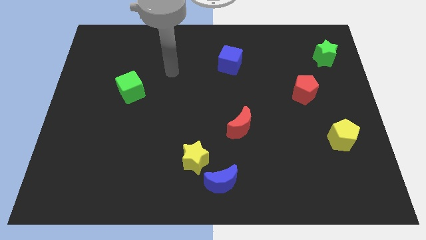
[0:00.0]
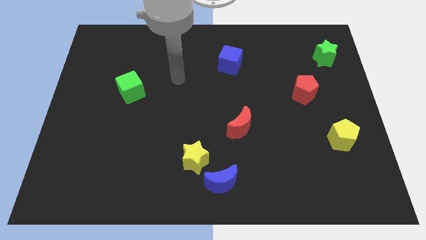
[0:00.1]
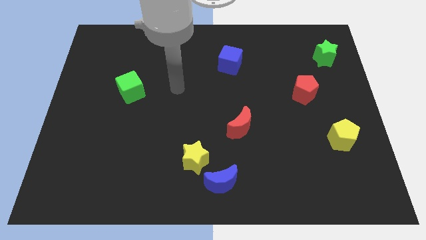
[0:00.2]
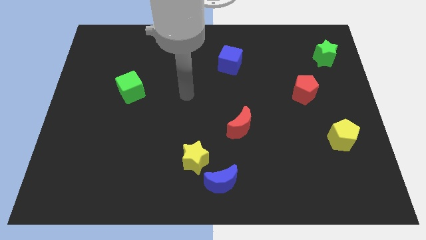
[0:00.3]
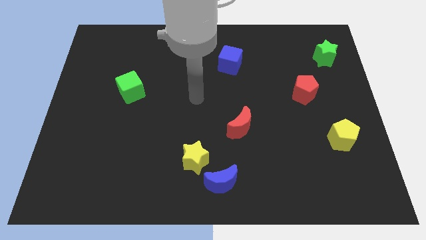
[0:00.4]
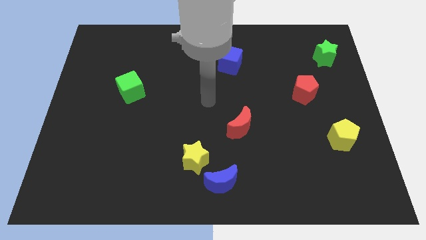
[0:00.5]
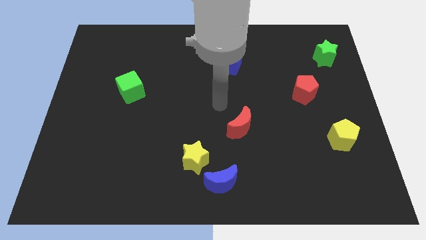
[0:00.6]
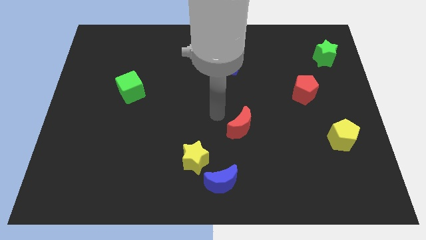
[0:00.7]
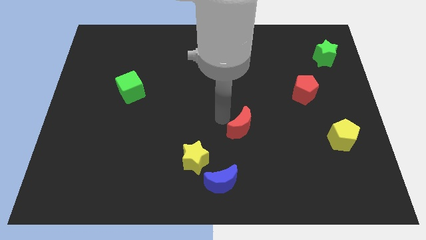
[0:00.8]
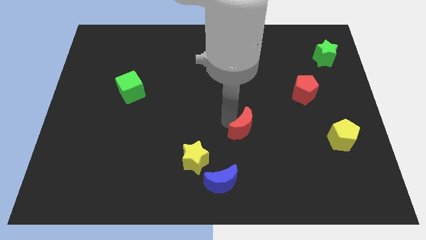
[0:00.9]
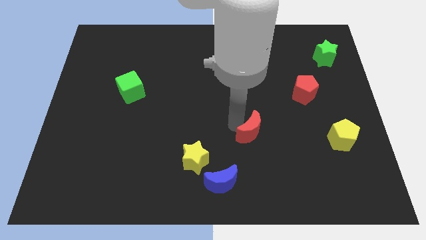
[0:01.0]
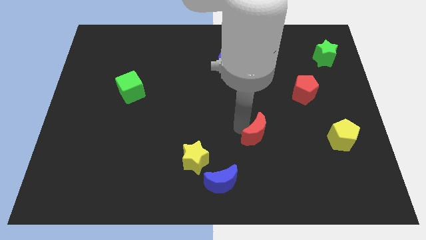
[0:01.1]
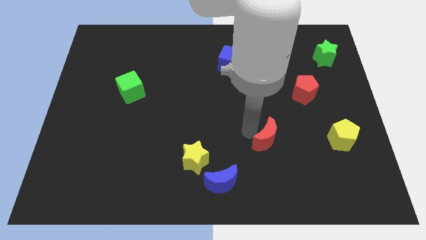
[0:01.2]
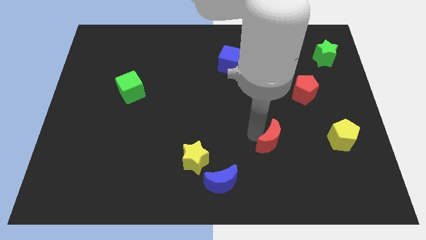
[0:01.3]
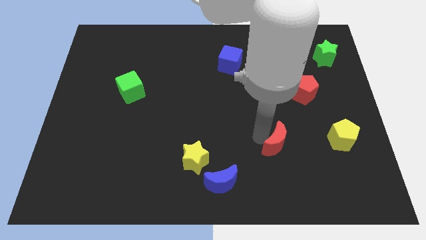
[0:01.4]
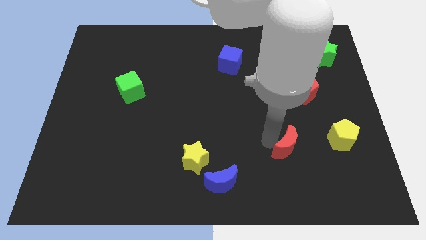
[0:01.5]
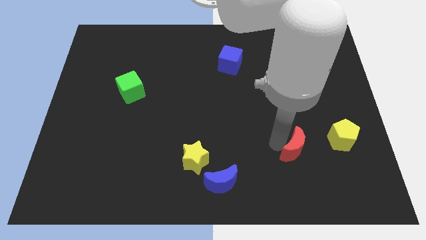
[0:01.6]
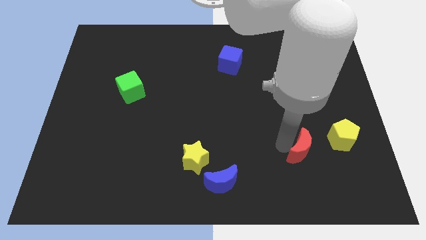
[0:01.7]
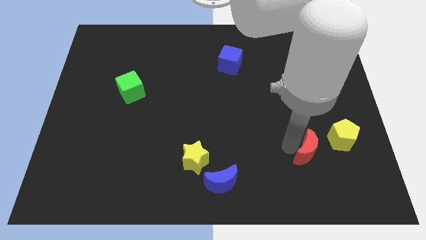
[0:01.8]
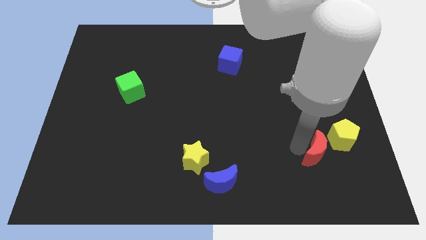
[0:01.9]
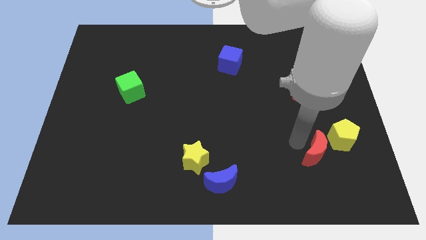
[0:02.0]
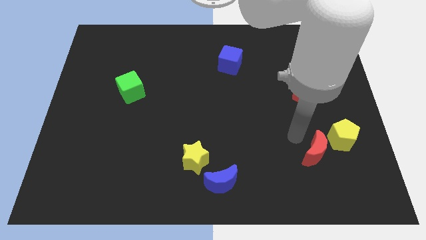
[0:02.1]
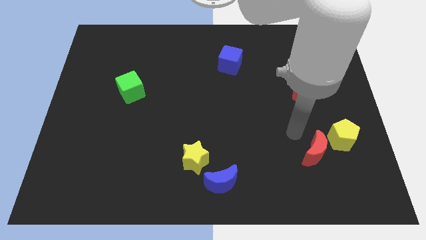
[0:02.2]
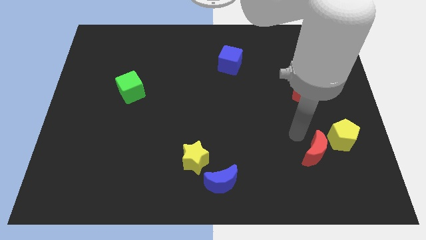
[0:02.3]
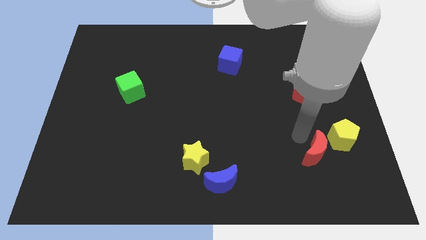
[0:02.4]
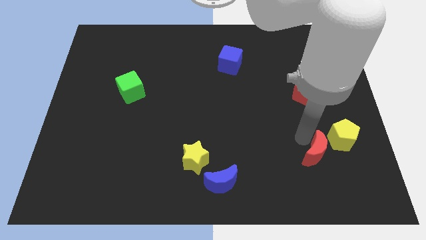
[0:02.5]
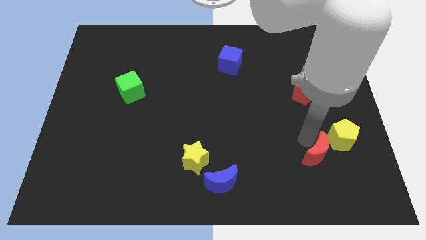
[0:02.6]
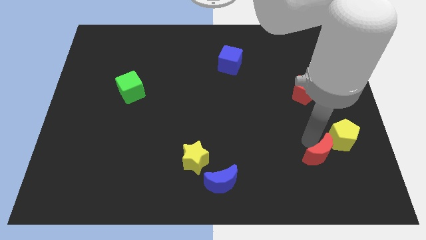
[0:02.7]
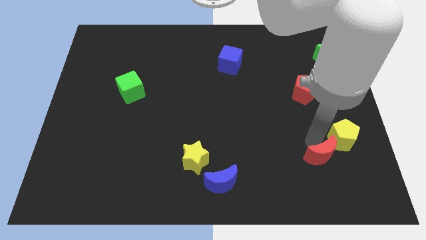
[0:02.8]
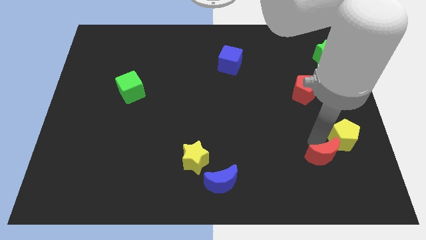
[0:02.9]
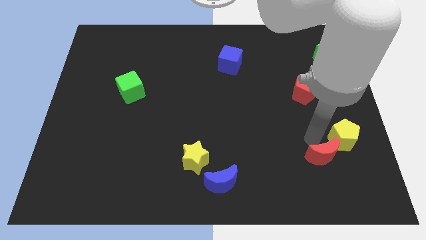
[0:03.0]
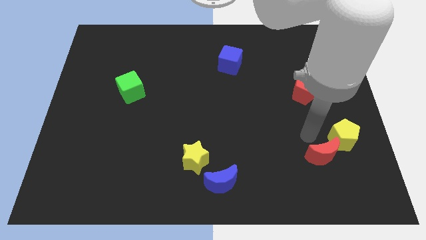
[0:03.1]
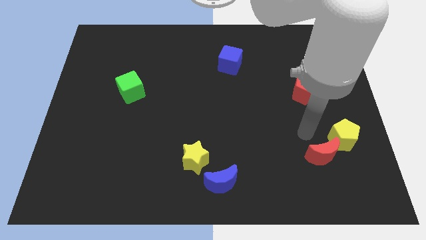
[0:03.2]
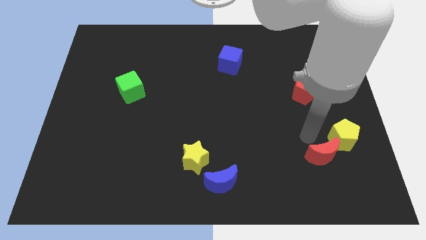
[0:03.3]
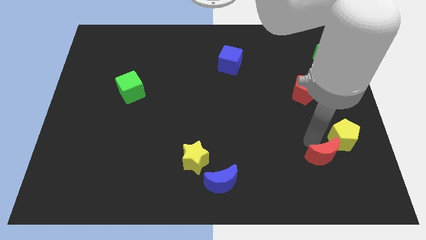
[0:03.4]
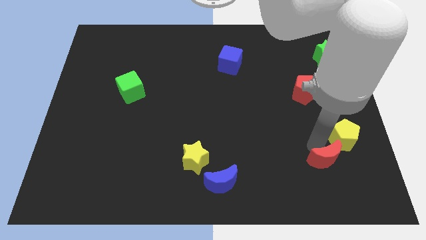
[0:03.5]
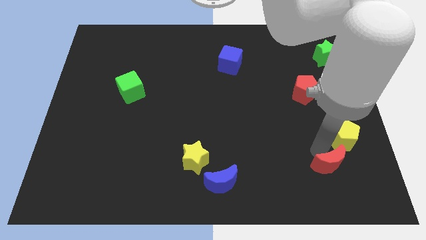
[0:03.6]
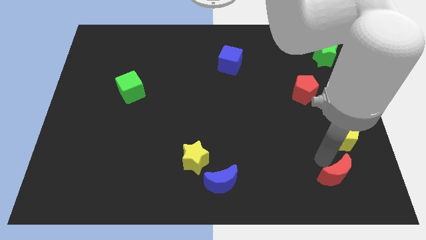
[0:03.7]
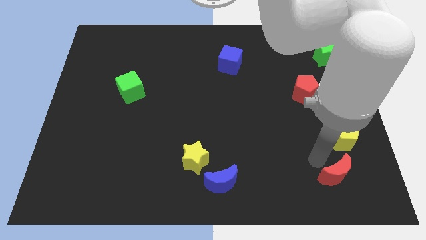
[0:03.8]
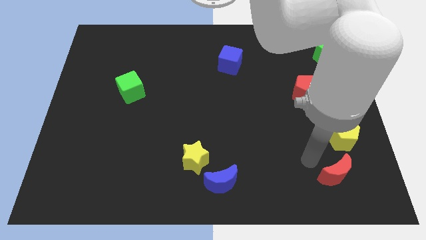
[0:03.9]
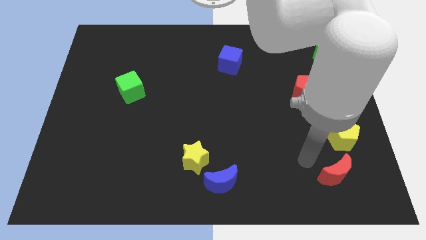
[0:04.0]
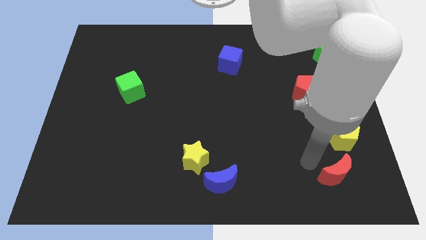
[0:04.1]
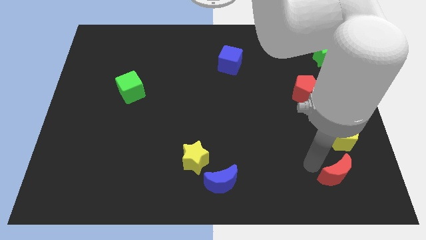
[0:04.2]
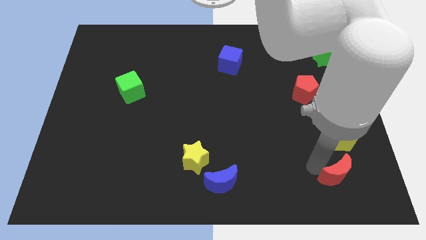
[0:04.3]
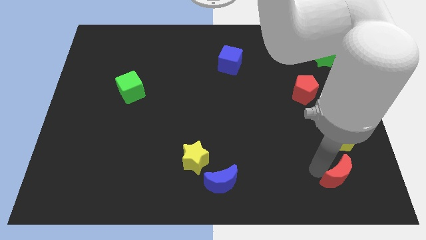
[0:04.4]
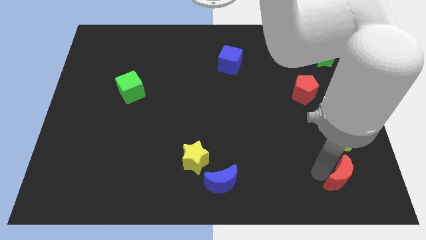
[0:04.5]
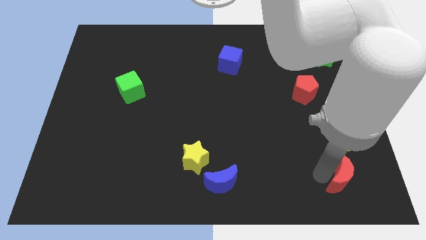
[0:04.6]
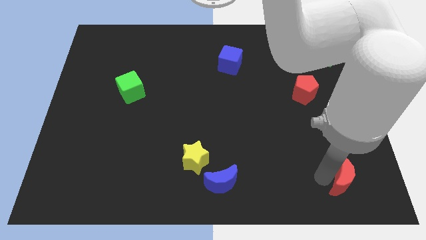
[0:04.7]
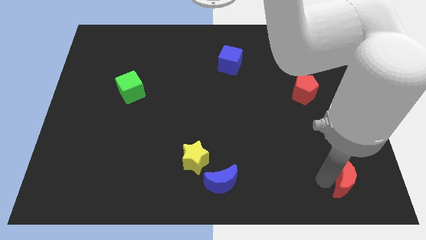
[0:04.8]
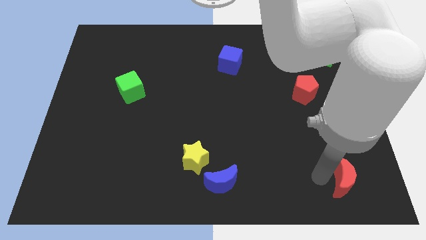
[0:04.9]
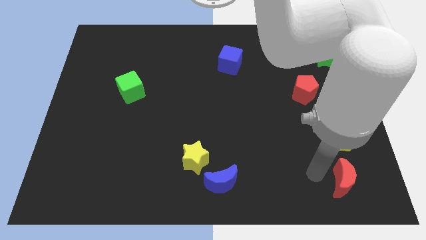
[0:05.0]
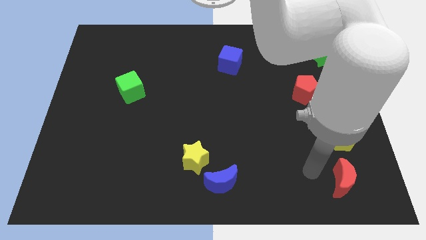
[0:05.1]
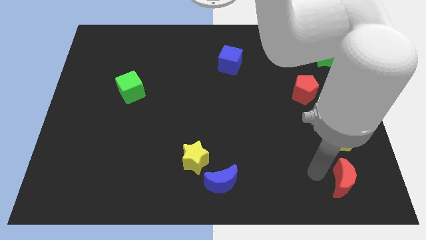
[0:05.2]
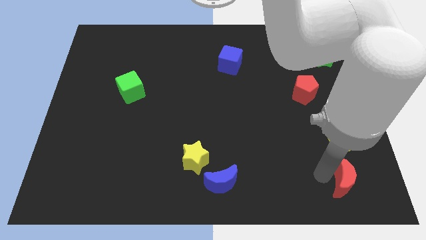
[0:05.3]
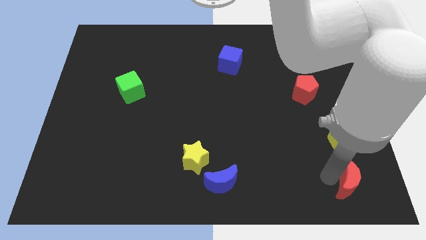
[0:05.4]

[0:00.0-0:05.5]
slide the red moon to the bottom right of the board
